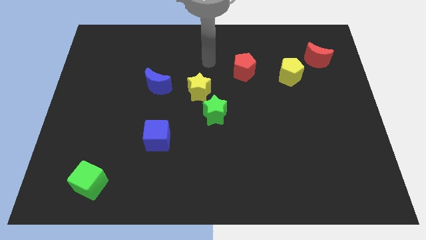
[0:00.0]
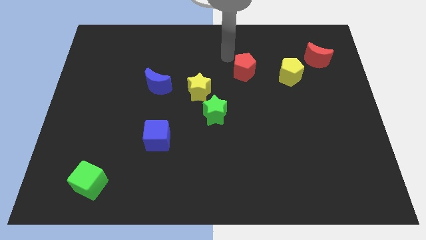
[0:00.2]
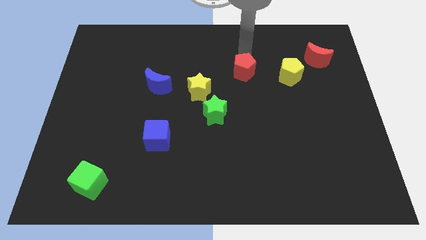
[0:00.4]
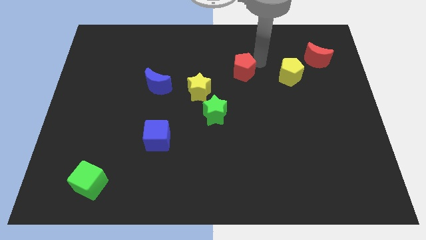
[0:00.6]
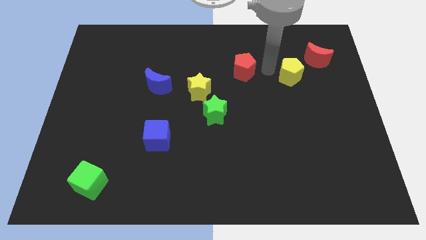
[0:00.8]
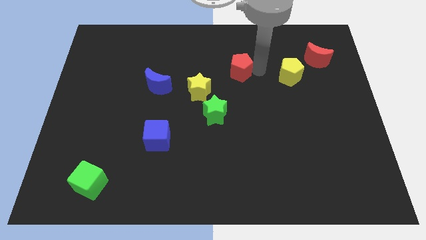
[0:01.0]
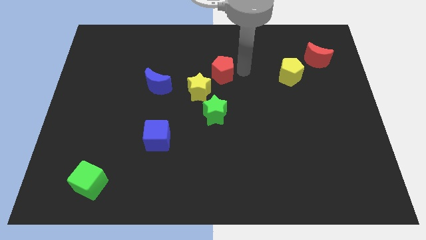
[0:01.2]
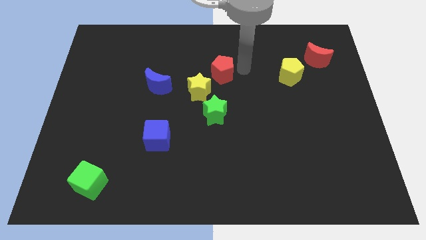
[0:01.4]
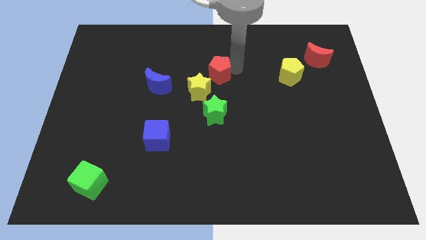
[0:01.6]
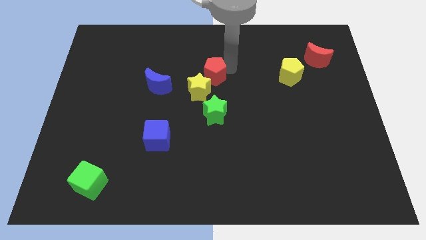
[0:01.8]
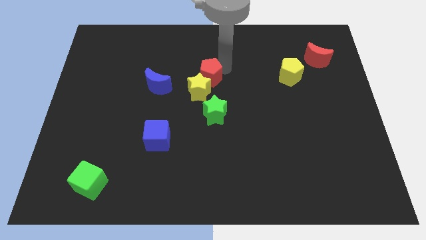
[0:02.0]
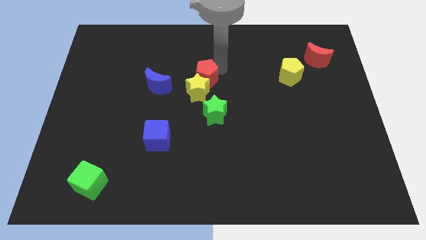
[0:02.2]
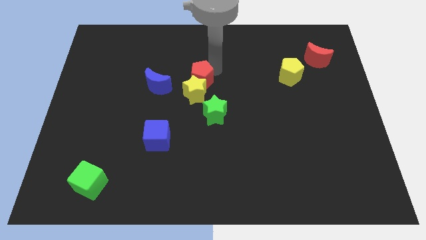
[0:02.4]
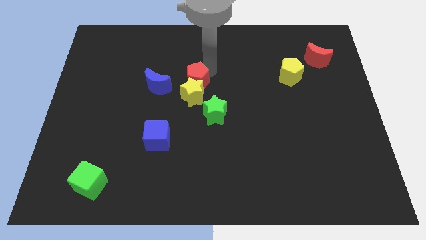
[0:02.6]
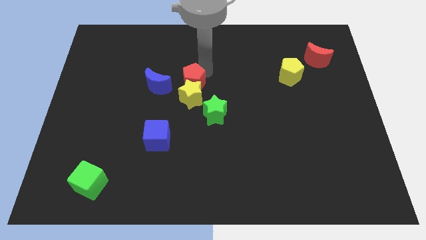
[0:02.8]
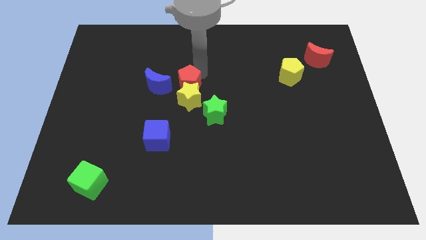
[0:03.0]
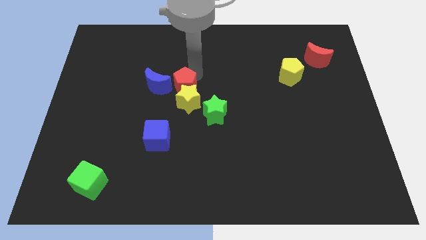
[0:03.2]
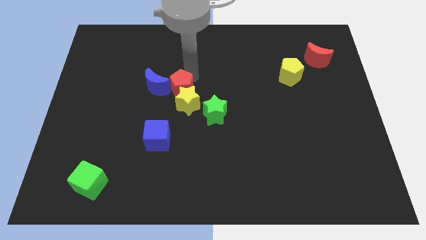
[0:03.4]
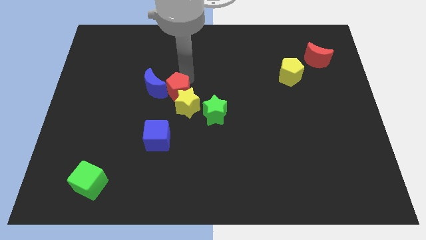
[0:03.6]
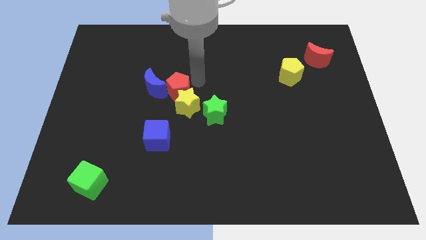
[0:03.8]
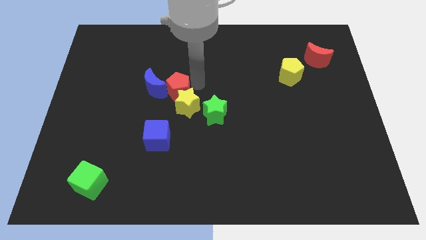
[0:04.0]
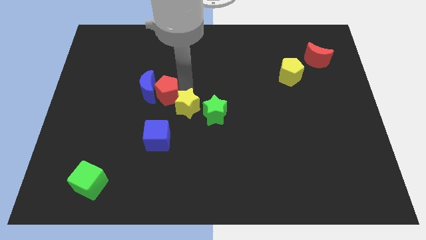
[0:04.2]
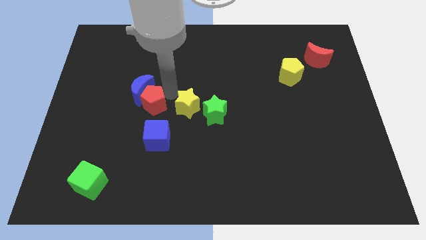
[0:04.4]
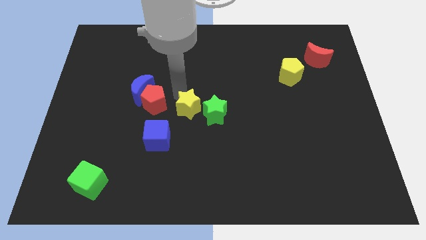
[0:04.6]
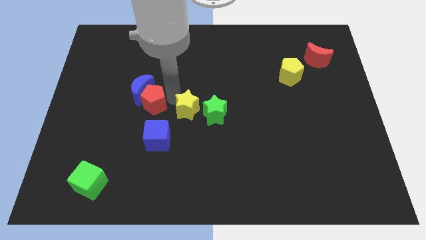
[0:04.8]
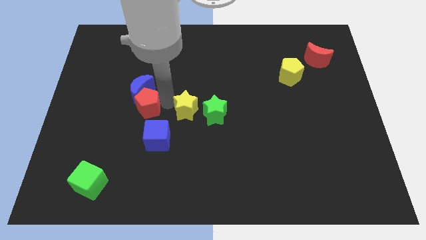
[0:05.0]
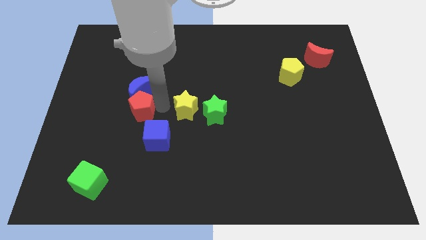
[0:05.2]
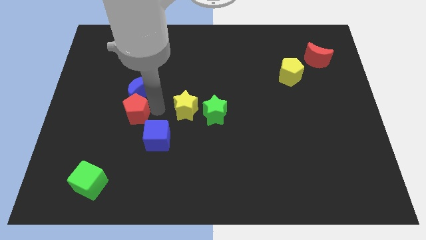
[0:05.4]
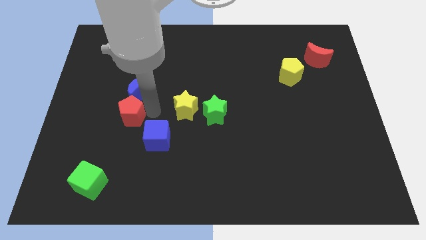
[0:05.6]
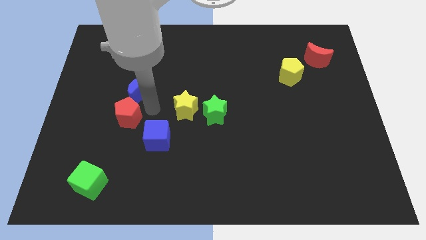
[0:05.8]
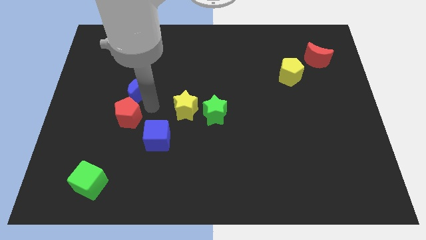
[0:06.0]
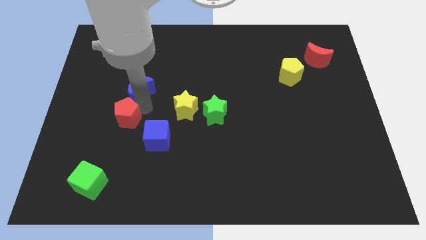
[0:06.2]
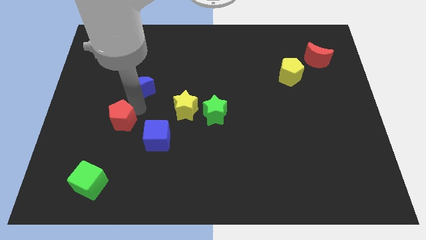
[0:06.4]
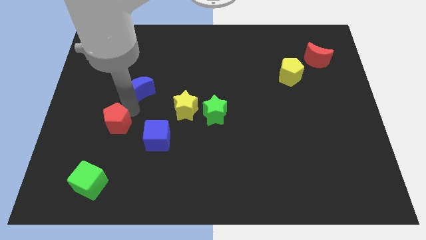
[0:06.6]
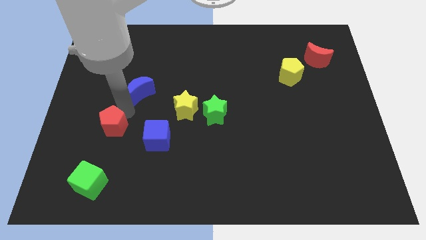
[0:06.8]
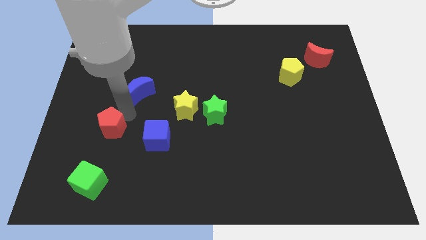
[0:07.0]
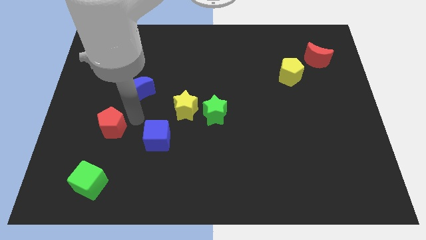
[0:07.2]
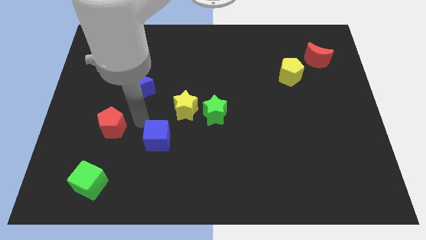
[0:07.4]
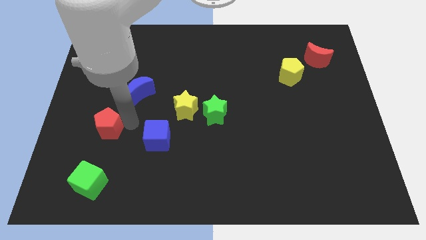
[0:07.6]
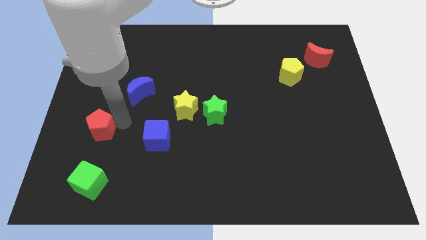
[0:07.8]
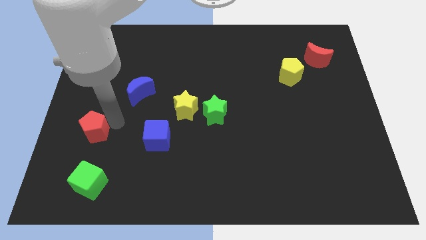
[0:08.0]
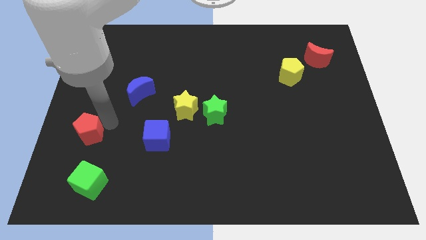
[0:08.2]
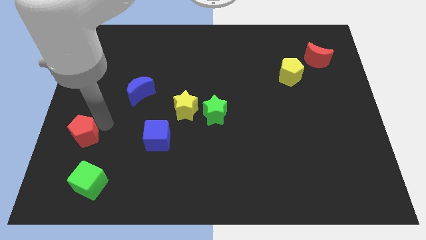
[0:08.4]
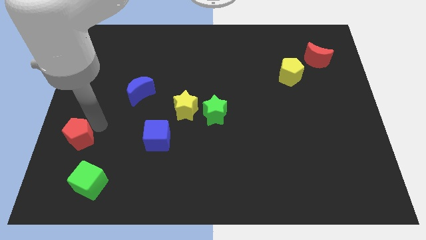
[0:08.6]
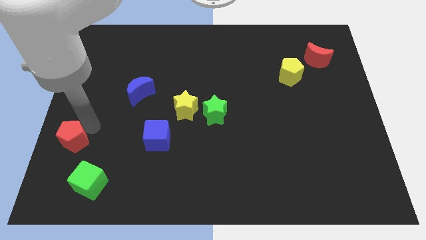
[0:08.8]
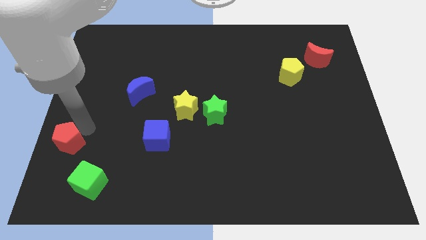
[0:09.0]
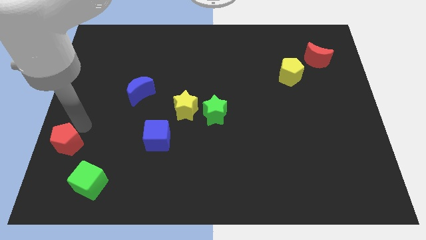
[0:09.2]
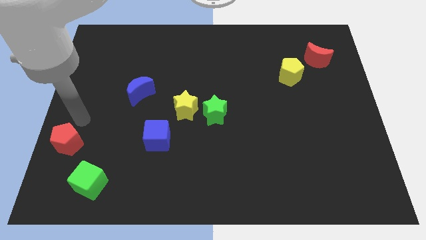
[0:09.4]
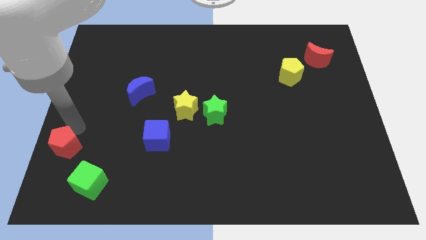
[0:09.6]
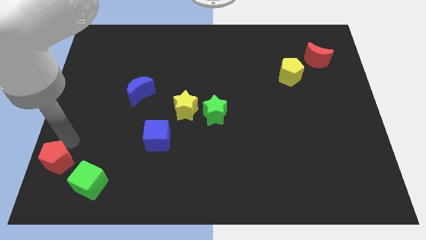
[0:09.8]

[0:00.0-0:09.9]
move the red pentagon to the bottom left of the board

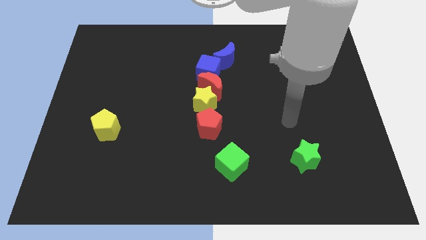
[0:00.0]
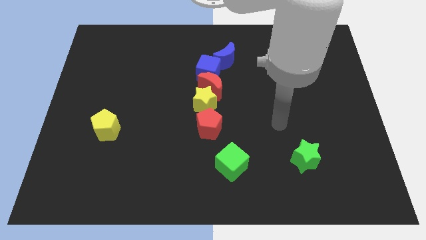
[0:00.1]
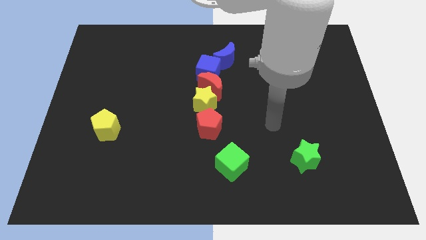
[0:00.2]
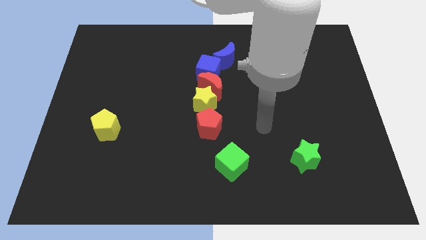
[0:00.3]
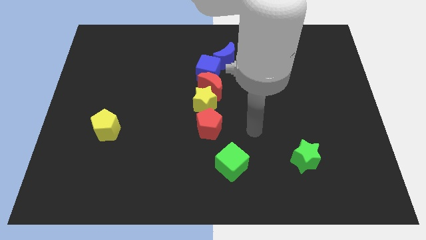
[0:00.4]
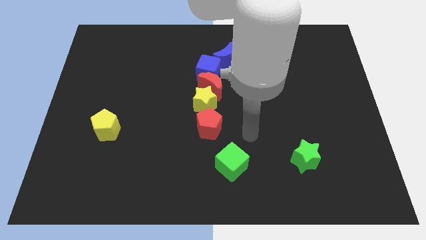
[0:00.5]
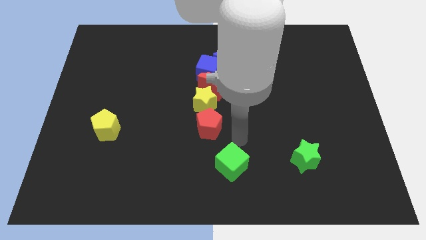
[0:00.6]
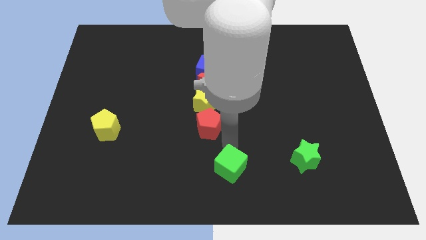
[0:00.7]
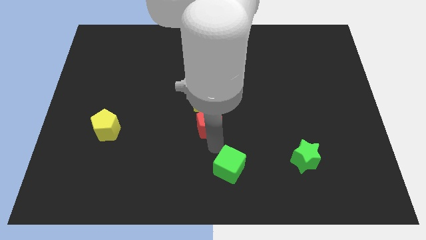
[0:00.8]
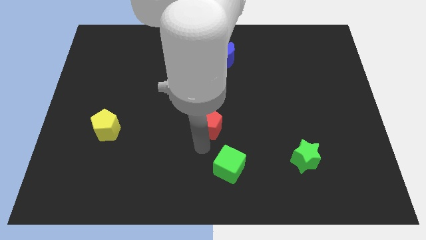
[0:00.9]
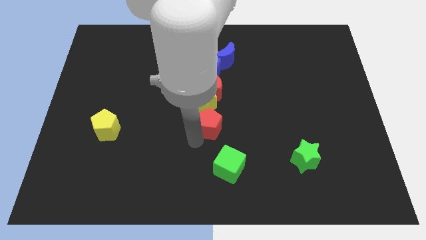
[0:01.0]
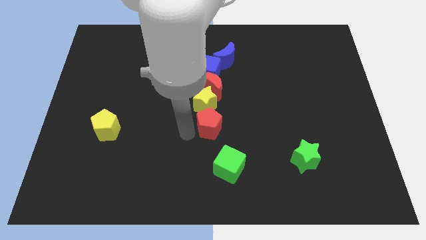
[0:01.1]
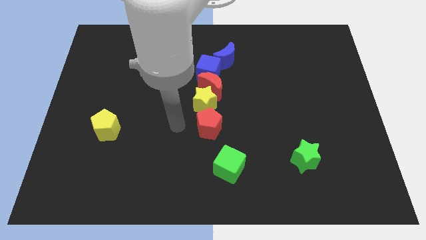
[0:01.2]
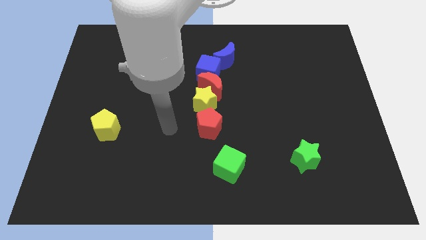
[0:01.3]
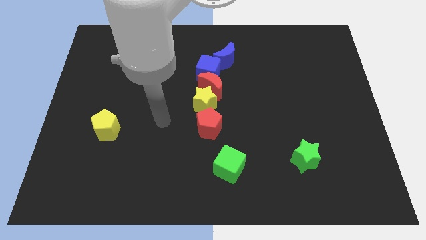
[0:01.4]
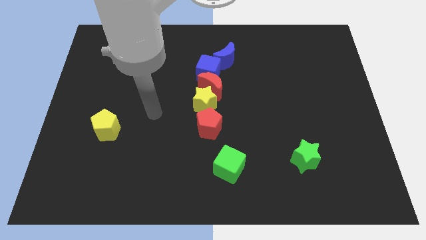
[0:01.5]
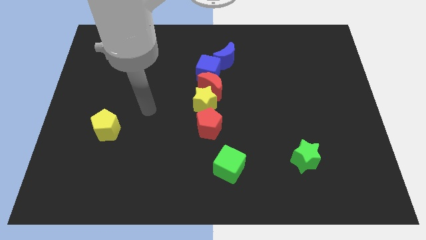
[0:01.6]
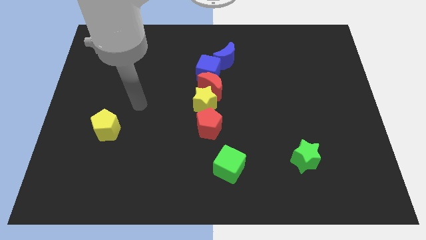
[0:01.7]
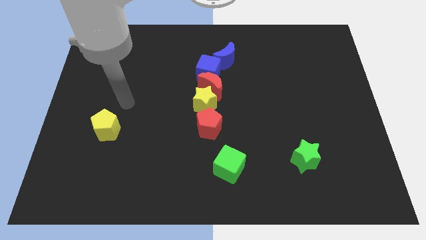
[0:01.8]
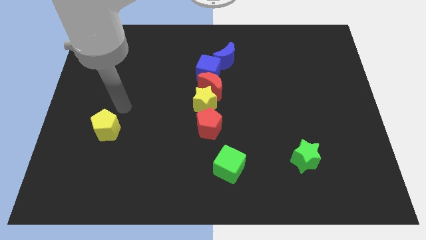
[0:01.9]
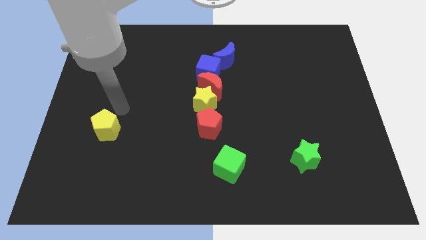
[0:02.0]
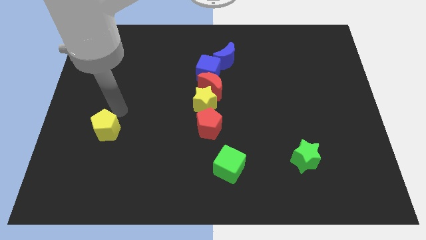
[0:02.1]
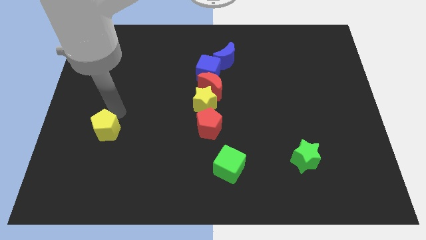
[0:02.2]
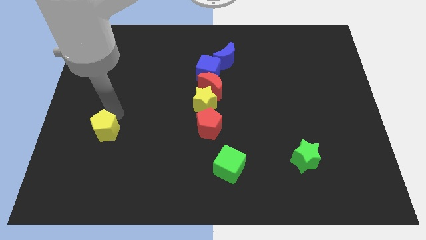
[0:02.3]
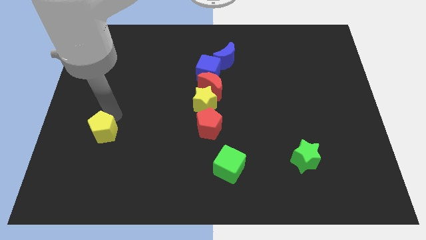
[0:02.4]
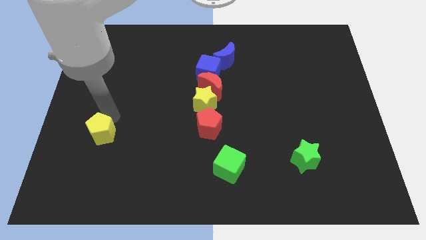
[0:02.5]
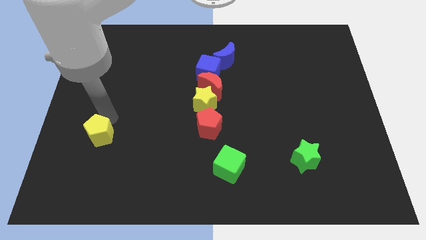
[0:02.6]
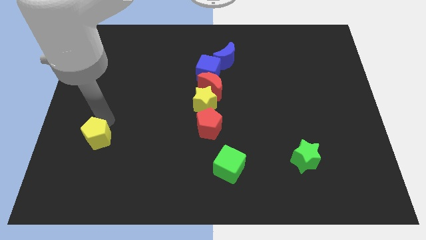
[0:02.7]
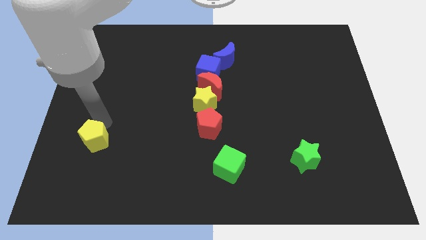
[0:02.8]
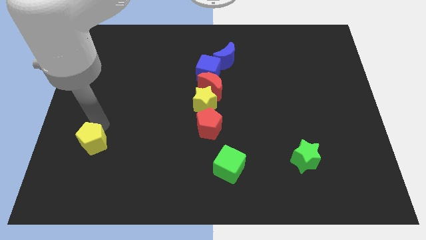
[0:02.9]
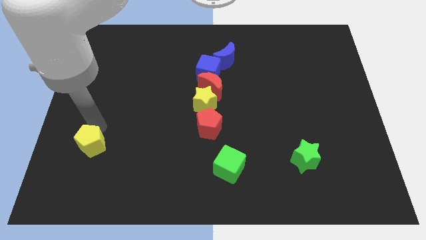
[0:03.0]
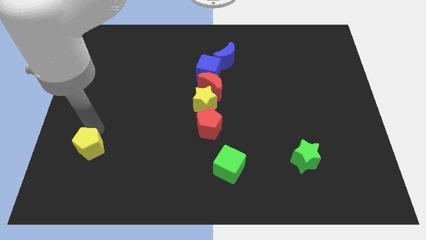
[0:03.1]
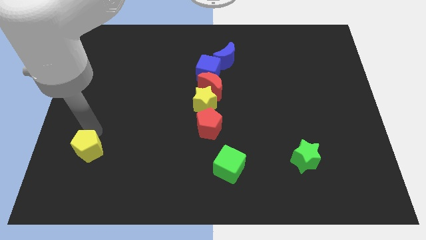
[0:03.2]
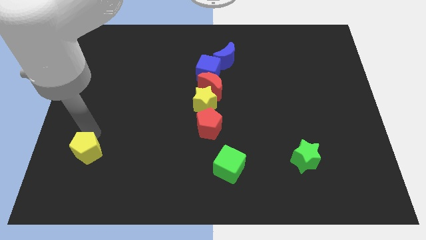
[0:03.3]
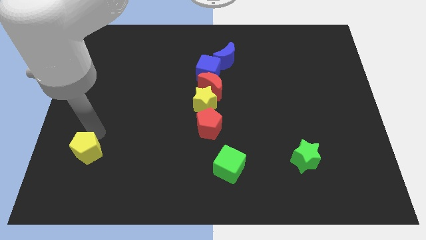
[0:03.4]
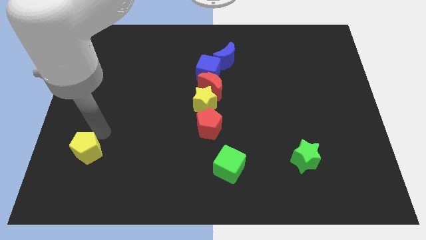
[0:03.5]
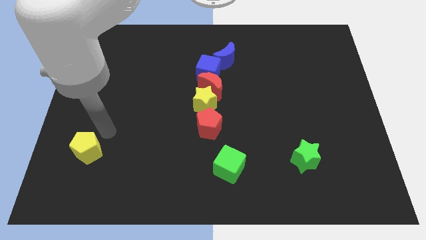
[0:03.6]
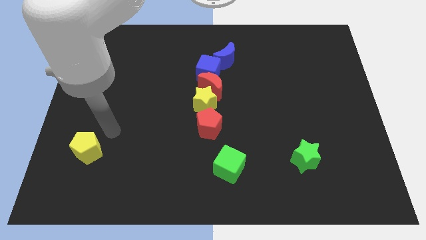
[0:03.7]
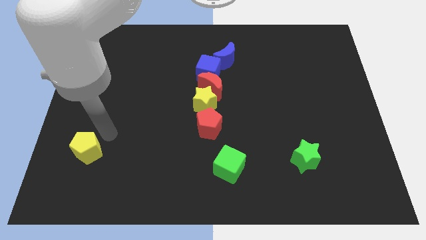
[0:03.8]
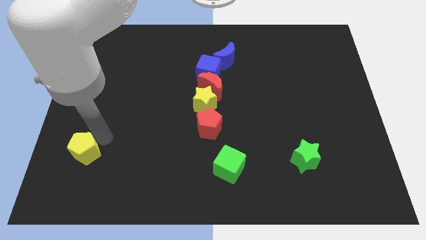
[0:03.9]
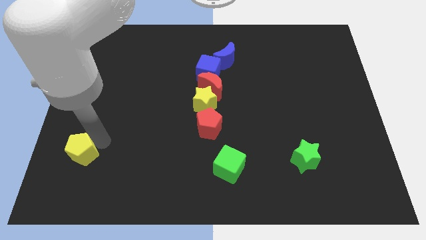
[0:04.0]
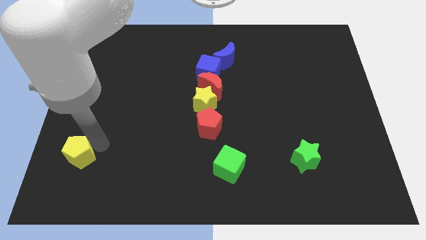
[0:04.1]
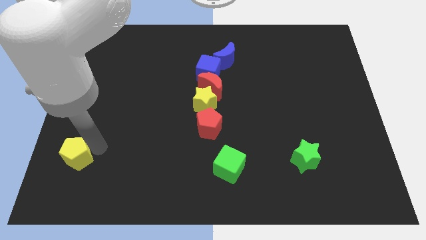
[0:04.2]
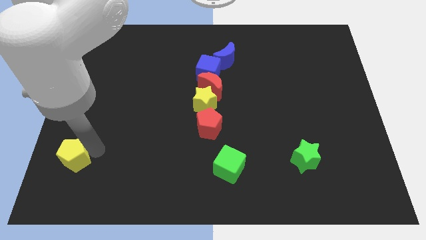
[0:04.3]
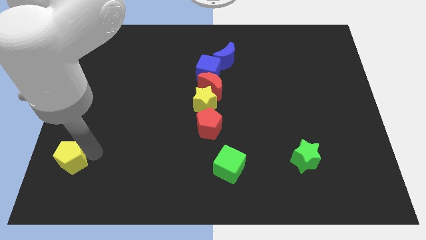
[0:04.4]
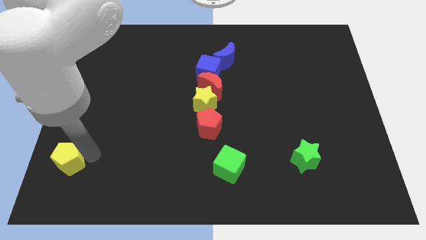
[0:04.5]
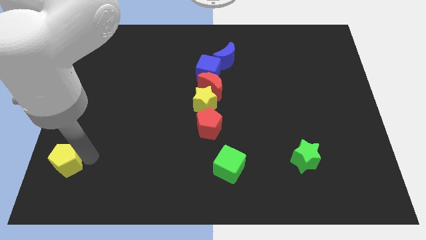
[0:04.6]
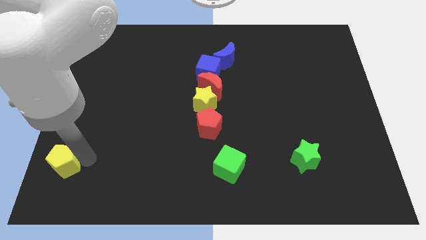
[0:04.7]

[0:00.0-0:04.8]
push the yellow pentagon to the lower left corner
